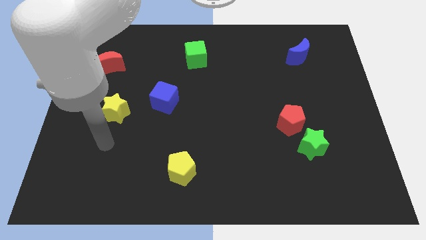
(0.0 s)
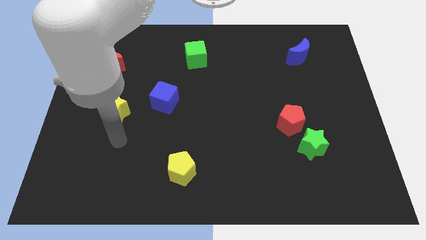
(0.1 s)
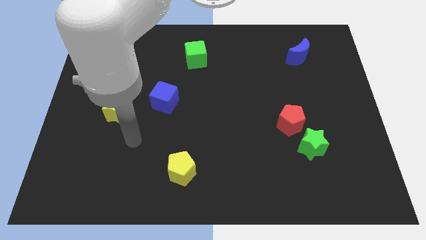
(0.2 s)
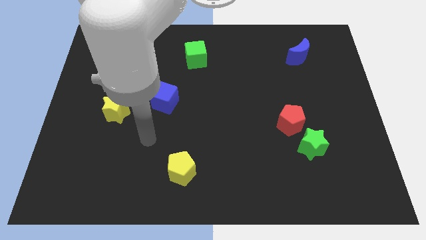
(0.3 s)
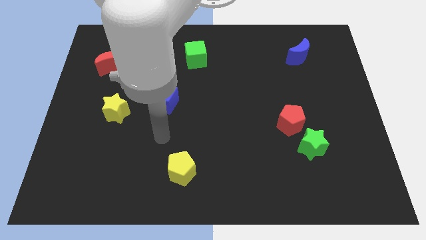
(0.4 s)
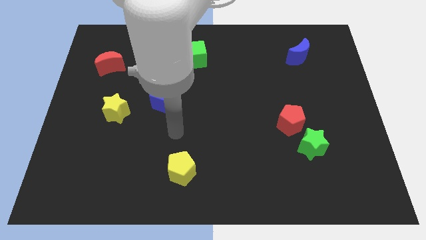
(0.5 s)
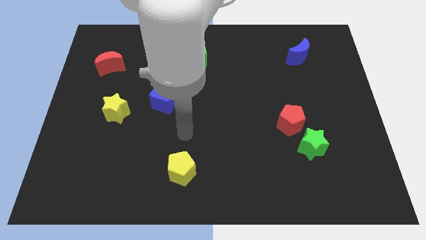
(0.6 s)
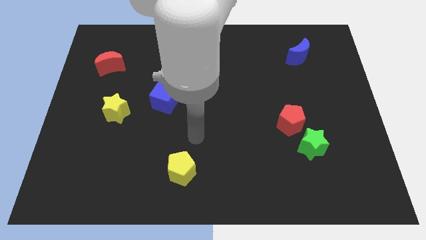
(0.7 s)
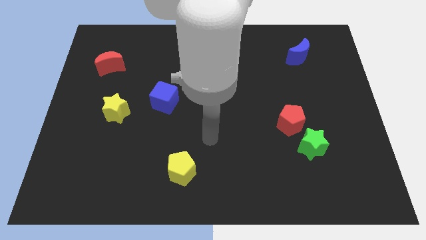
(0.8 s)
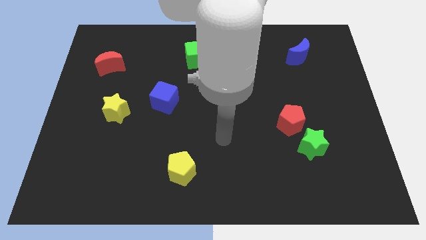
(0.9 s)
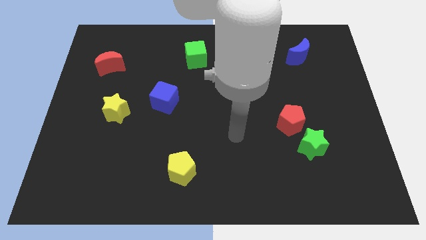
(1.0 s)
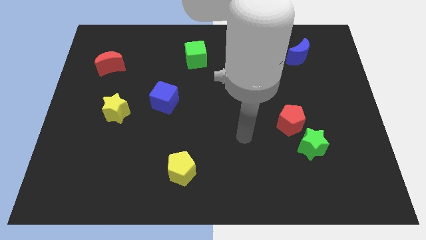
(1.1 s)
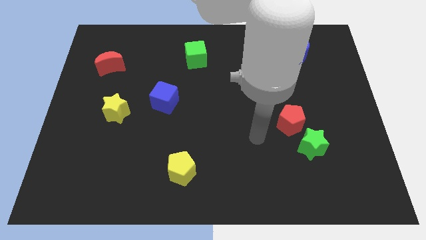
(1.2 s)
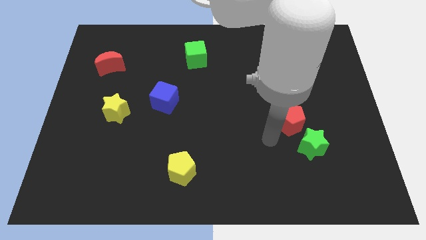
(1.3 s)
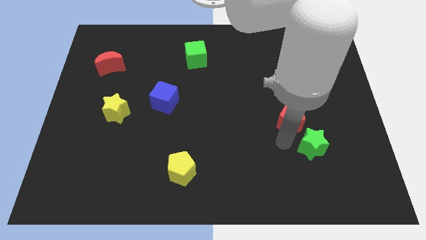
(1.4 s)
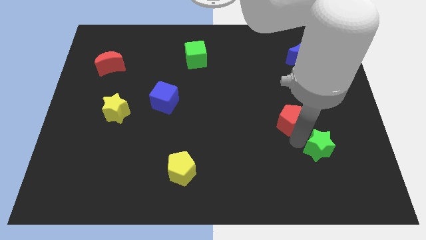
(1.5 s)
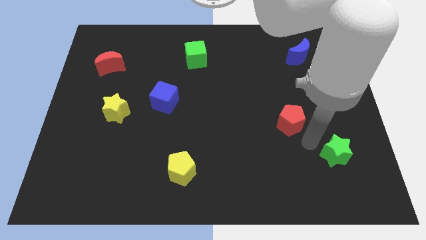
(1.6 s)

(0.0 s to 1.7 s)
move the red pentagon away from the green star

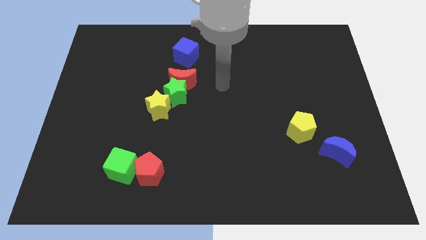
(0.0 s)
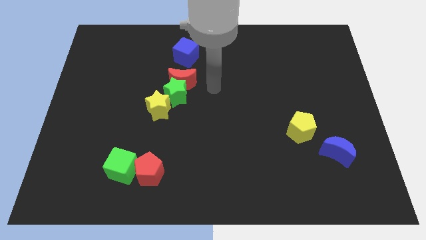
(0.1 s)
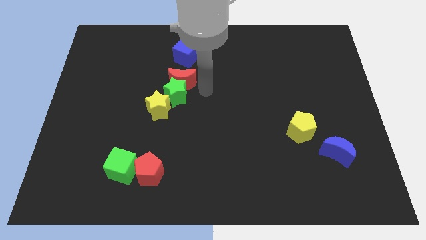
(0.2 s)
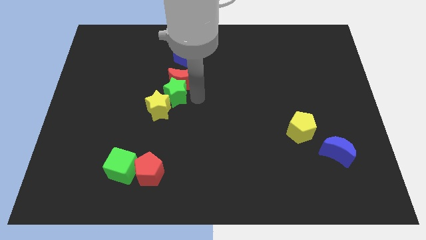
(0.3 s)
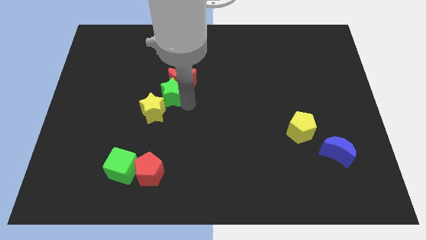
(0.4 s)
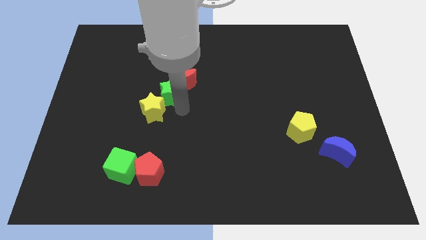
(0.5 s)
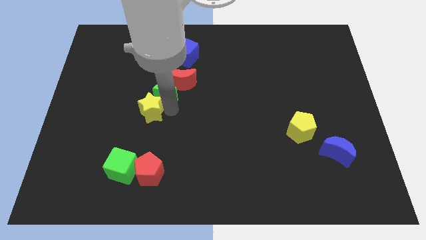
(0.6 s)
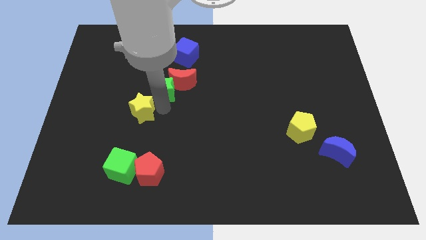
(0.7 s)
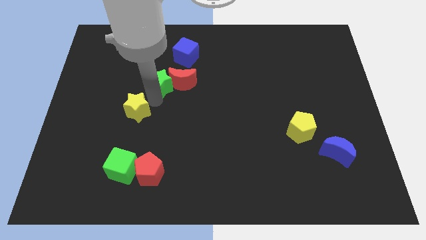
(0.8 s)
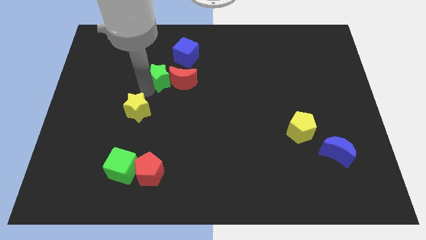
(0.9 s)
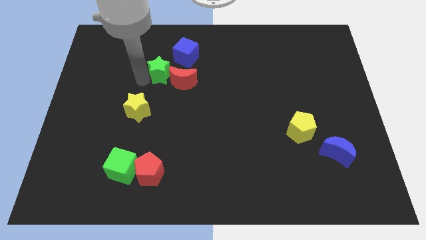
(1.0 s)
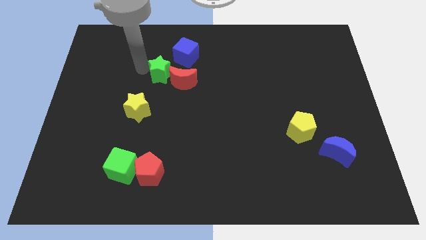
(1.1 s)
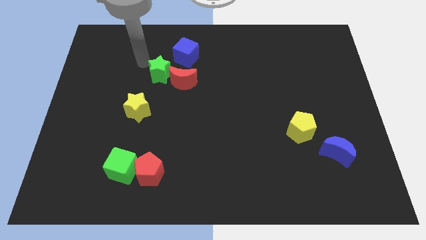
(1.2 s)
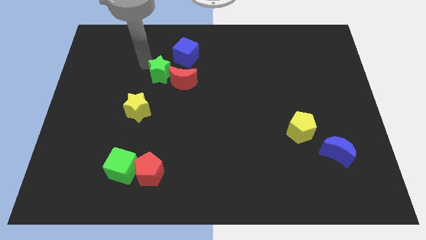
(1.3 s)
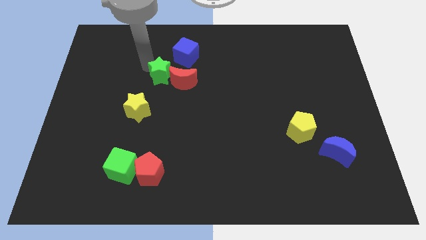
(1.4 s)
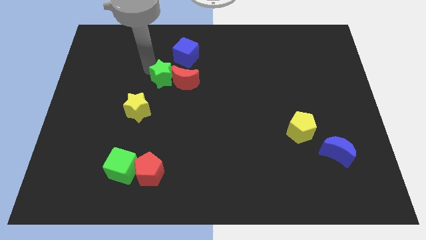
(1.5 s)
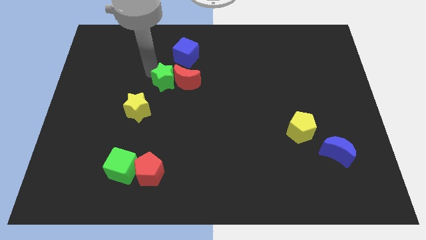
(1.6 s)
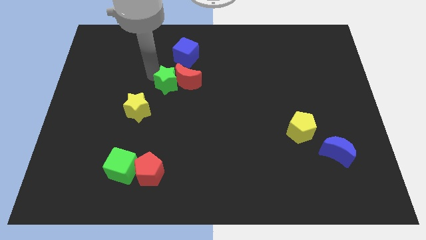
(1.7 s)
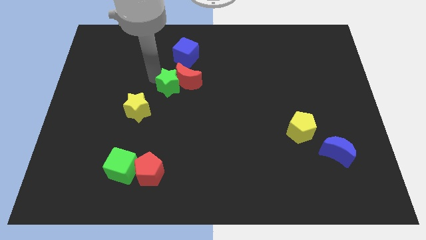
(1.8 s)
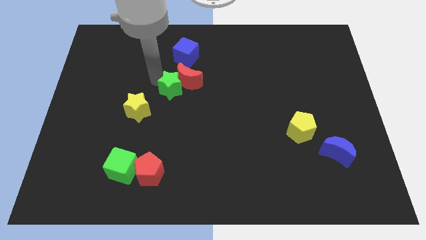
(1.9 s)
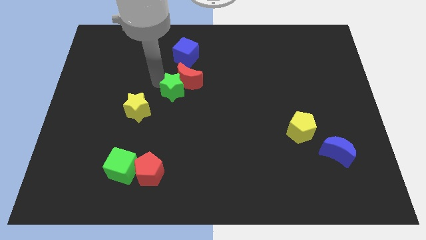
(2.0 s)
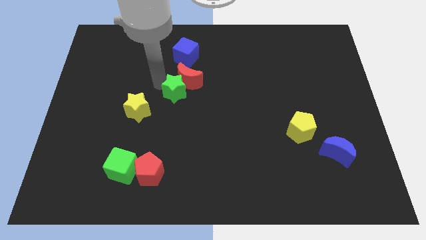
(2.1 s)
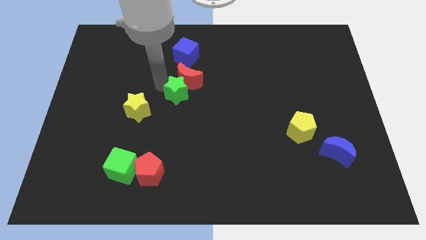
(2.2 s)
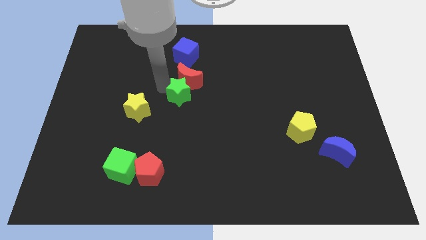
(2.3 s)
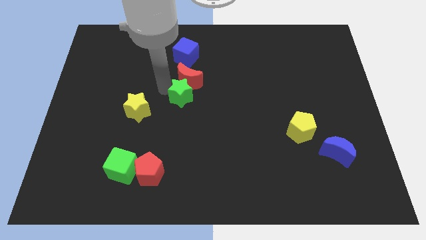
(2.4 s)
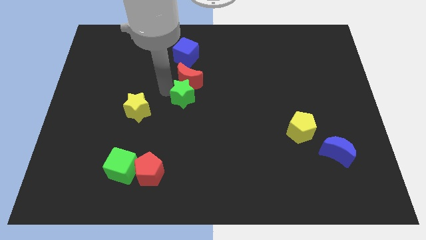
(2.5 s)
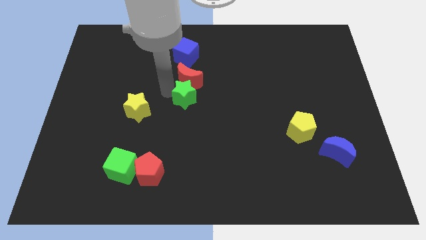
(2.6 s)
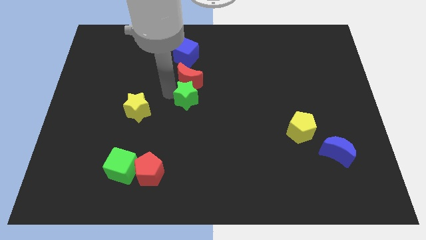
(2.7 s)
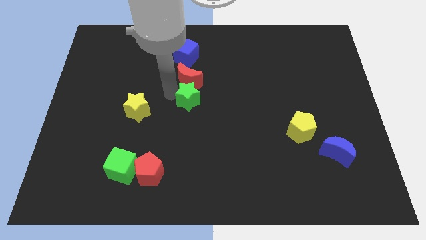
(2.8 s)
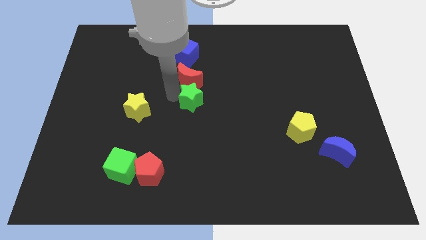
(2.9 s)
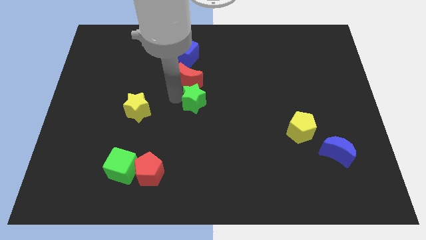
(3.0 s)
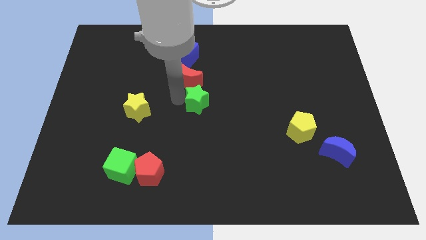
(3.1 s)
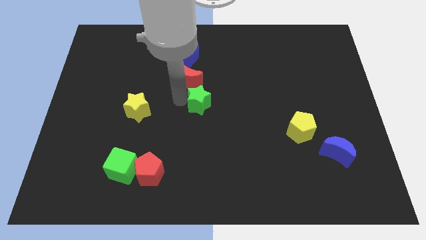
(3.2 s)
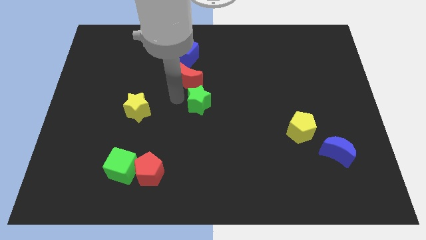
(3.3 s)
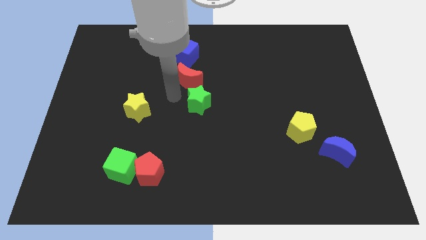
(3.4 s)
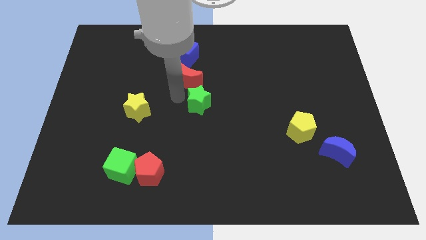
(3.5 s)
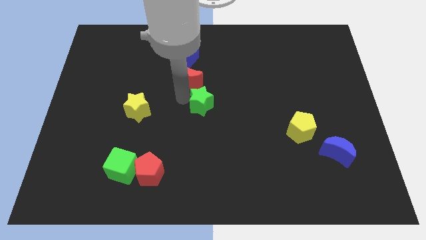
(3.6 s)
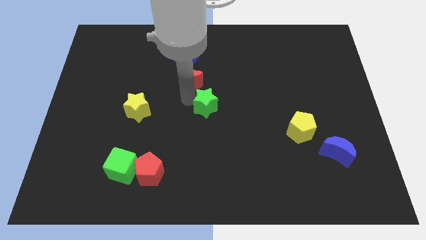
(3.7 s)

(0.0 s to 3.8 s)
pull the green star apart from the red moon and yellow star

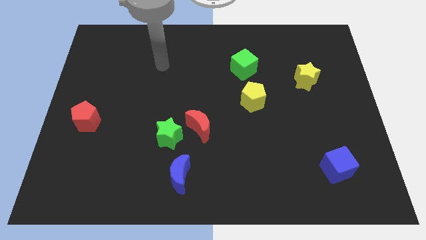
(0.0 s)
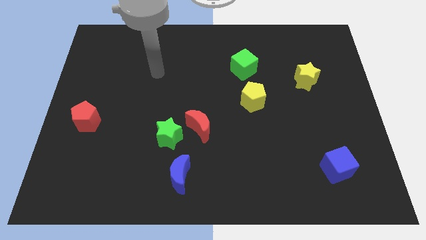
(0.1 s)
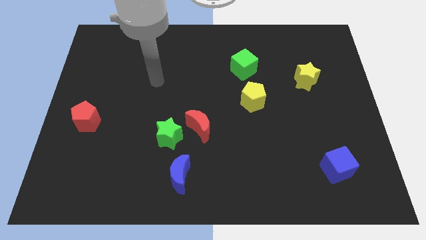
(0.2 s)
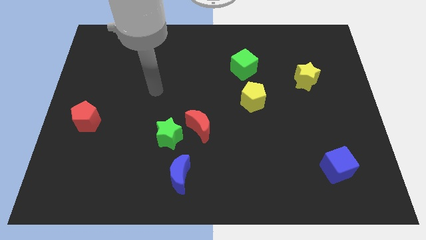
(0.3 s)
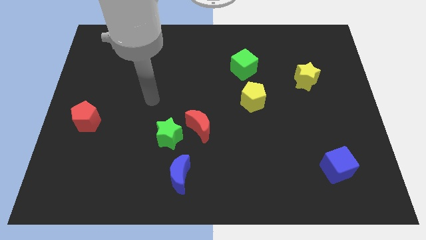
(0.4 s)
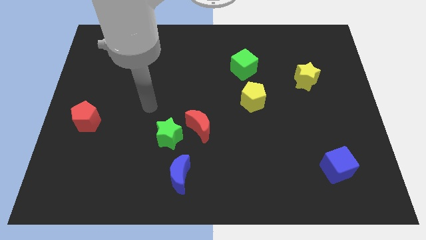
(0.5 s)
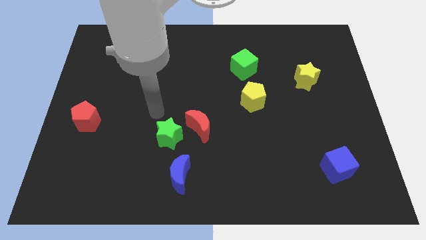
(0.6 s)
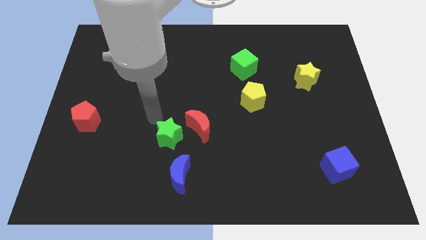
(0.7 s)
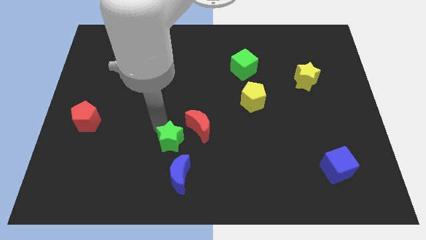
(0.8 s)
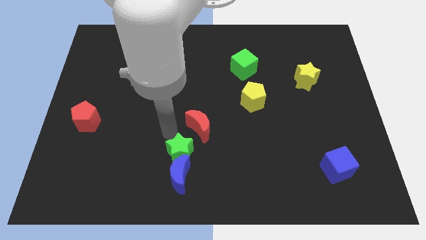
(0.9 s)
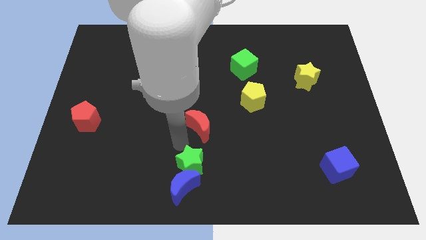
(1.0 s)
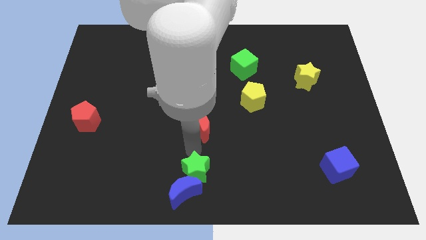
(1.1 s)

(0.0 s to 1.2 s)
separate the red moon from the green star

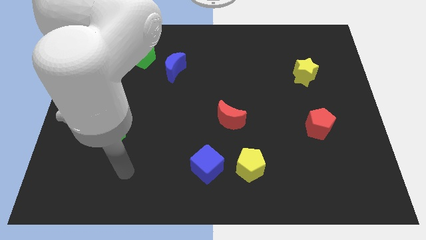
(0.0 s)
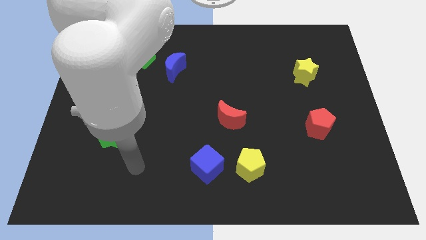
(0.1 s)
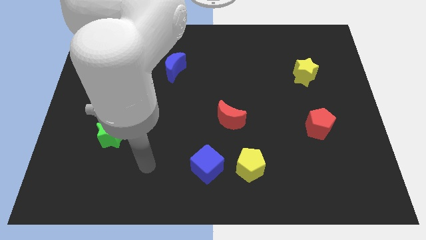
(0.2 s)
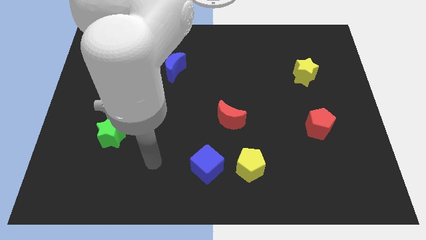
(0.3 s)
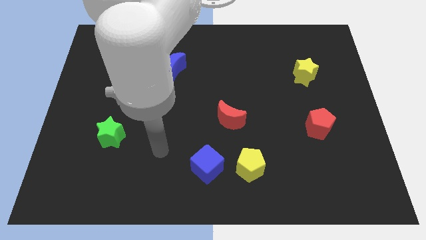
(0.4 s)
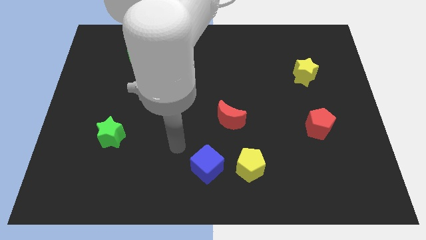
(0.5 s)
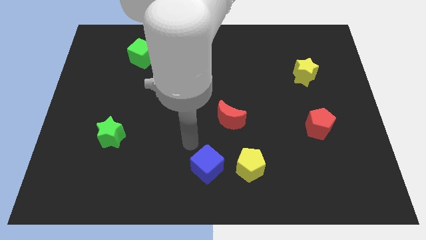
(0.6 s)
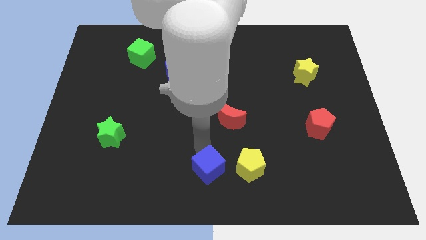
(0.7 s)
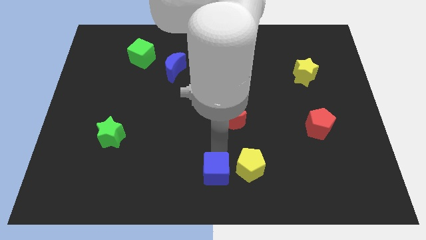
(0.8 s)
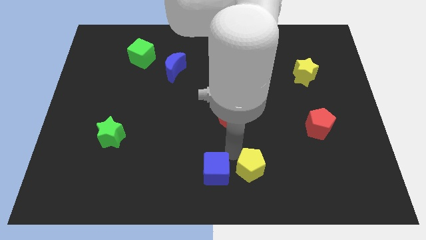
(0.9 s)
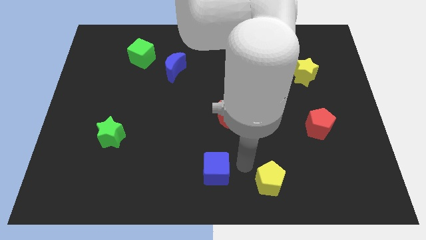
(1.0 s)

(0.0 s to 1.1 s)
move the blue cube away from the yellow pentagon

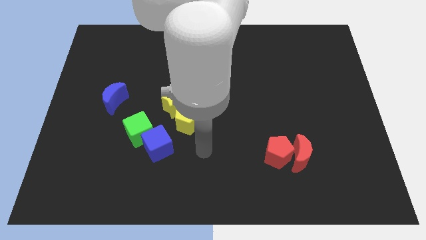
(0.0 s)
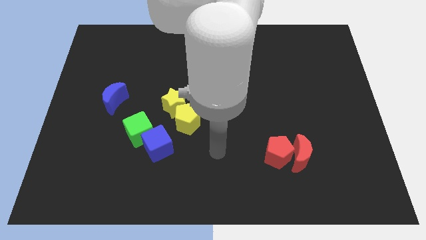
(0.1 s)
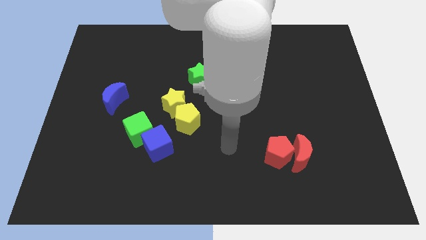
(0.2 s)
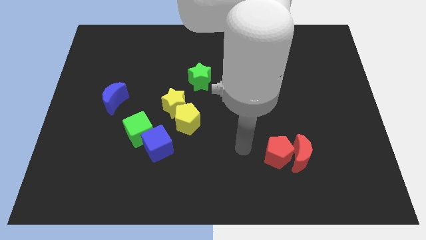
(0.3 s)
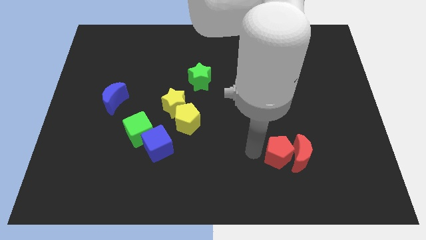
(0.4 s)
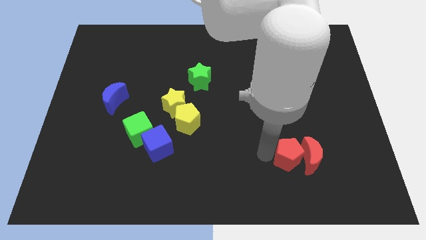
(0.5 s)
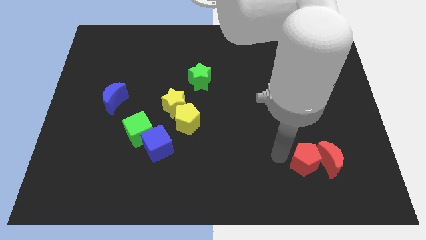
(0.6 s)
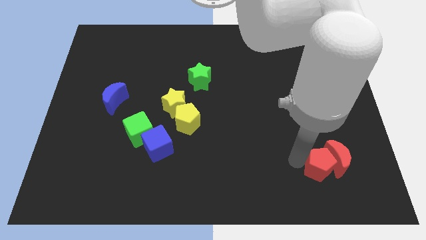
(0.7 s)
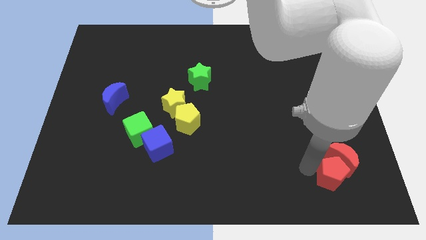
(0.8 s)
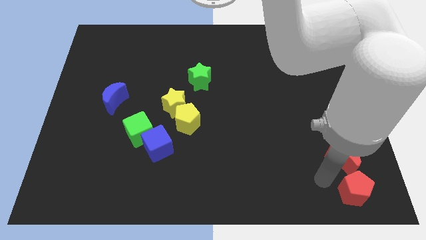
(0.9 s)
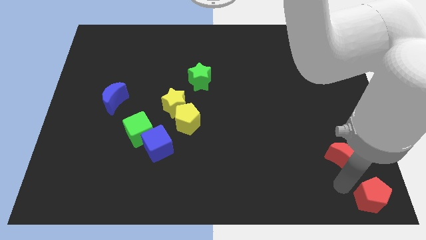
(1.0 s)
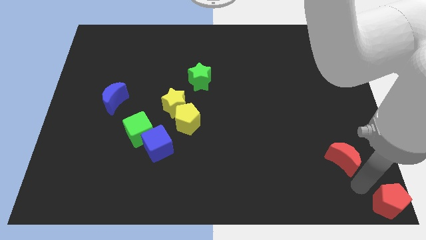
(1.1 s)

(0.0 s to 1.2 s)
move the red moon away from the red pentagon

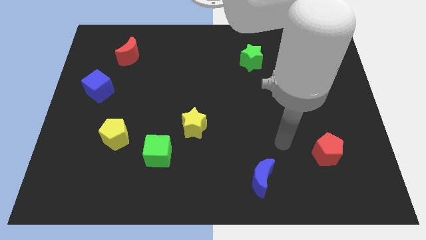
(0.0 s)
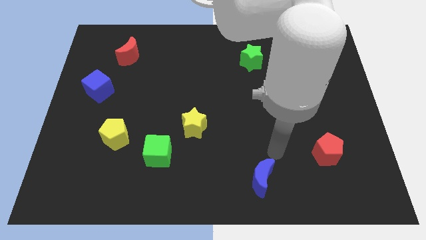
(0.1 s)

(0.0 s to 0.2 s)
pull the green cube apart from the yellow star
